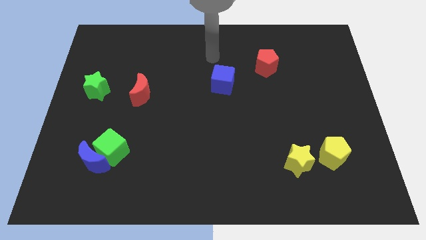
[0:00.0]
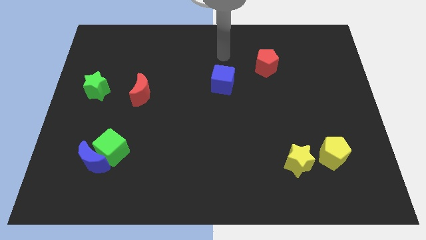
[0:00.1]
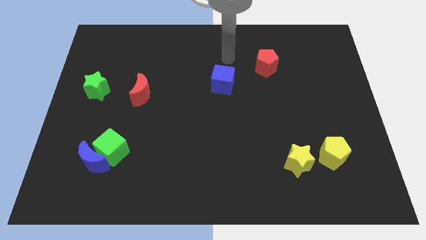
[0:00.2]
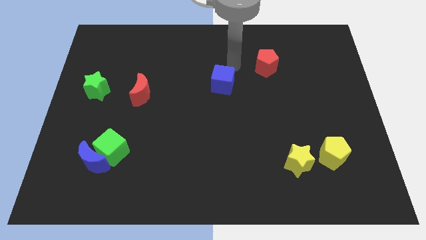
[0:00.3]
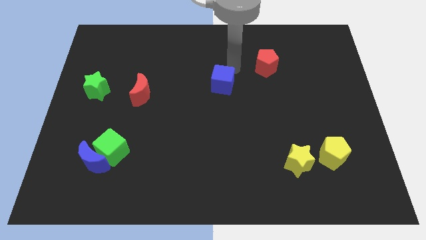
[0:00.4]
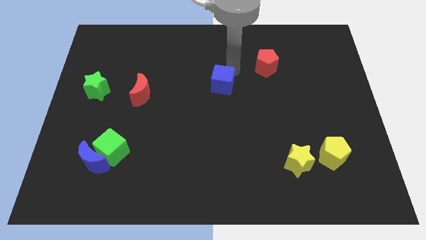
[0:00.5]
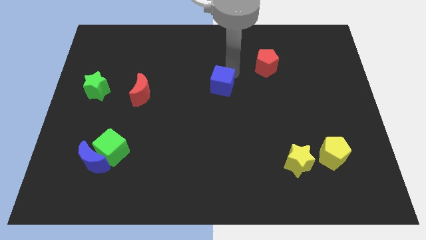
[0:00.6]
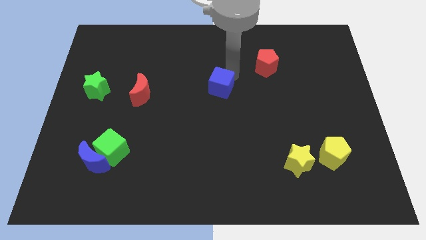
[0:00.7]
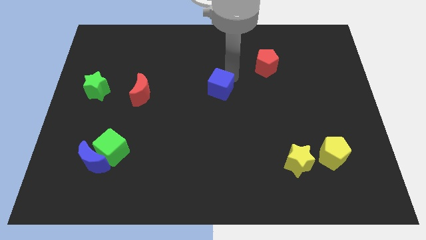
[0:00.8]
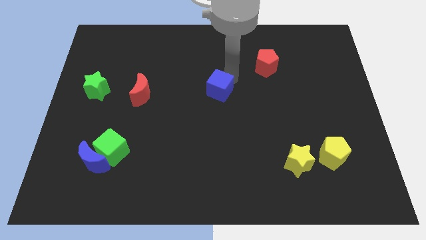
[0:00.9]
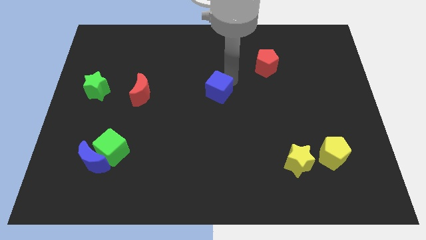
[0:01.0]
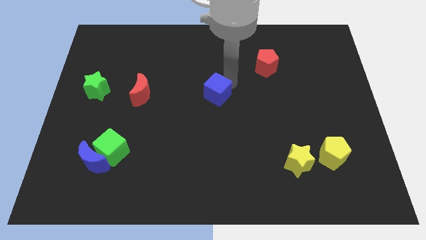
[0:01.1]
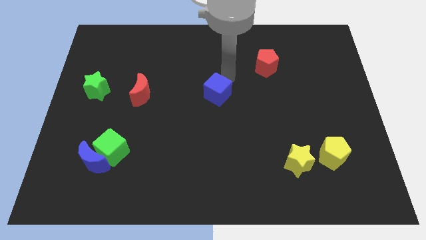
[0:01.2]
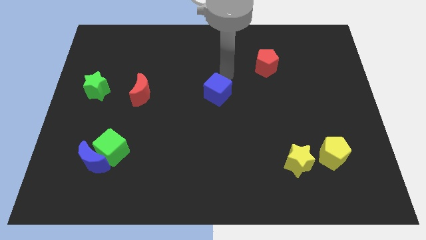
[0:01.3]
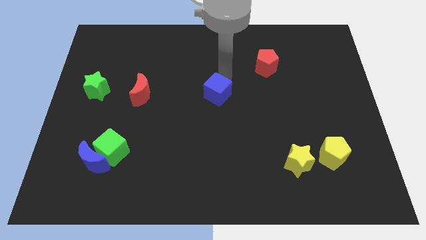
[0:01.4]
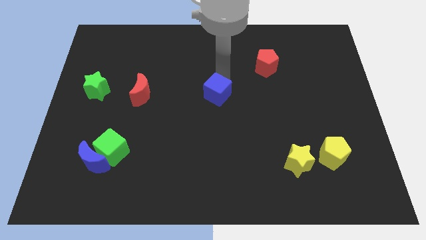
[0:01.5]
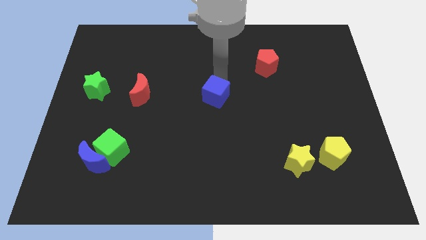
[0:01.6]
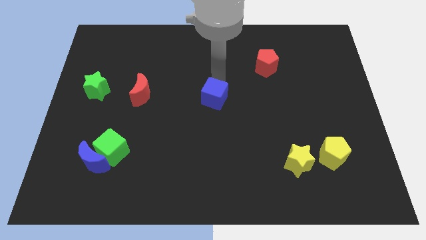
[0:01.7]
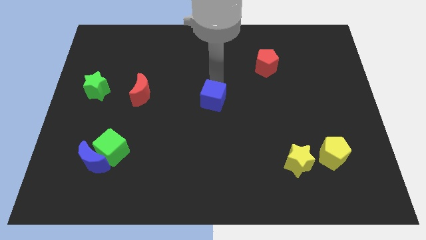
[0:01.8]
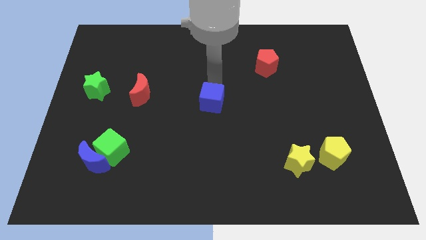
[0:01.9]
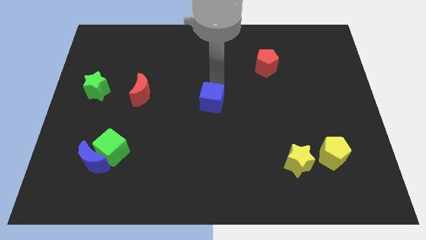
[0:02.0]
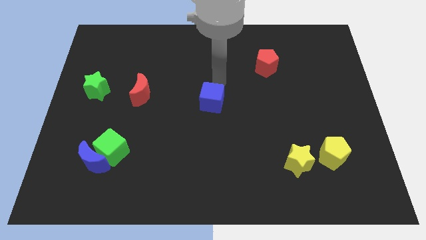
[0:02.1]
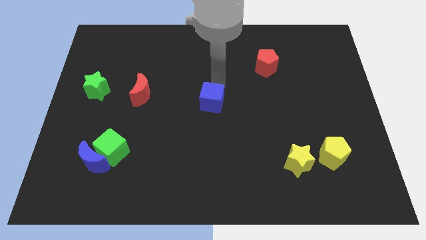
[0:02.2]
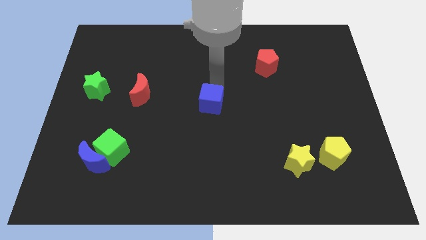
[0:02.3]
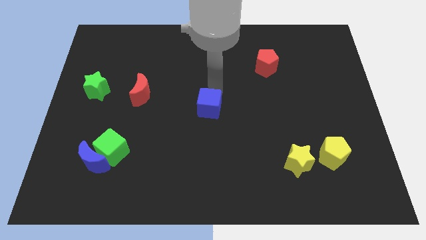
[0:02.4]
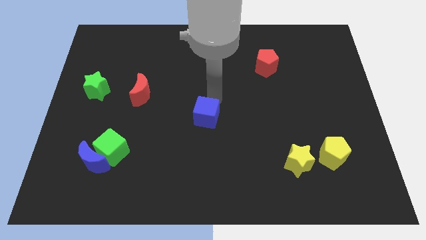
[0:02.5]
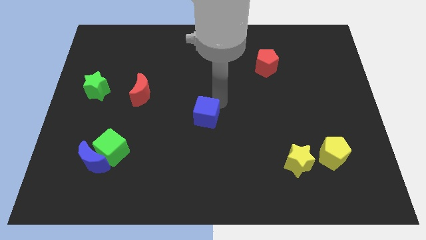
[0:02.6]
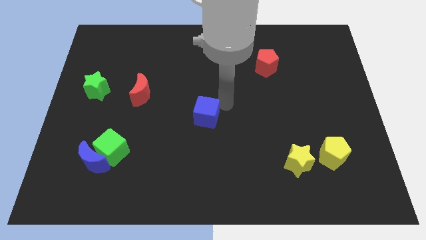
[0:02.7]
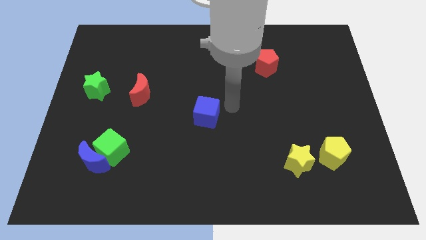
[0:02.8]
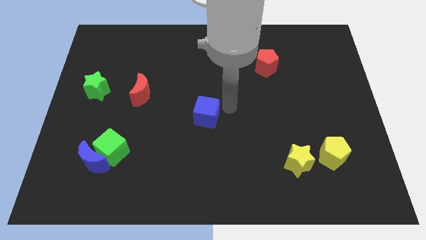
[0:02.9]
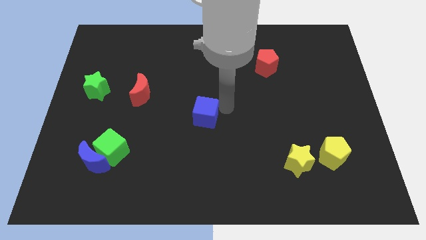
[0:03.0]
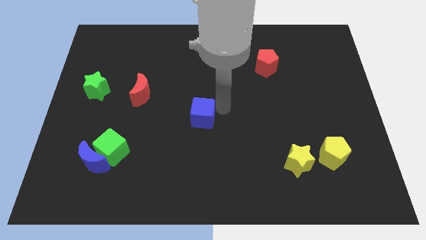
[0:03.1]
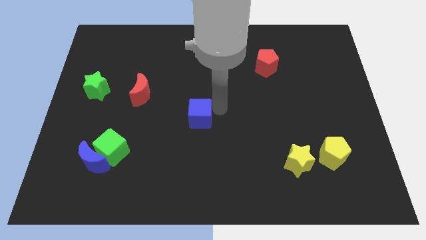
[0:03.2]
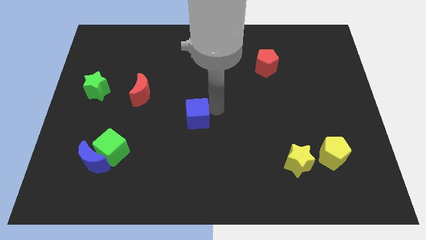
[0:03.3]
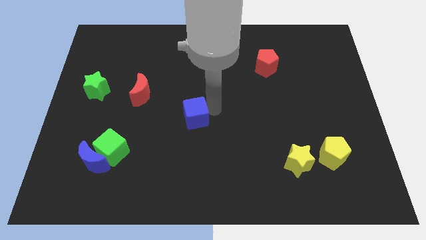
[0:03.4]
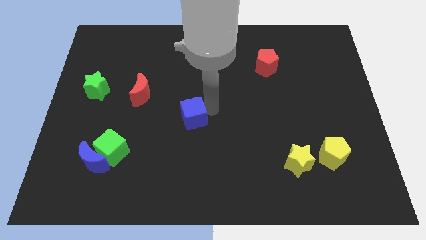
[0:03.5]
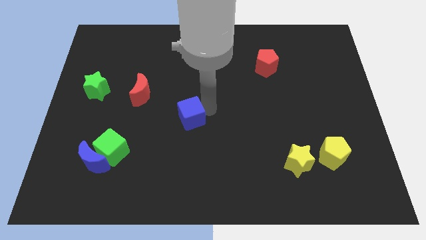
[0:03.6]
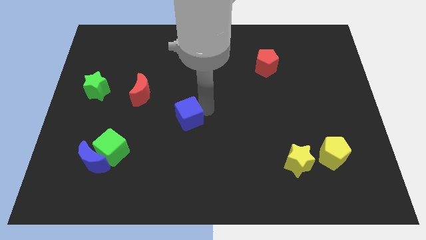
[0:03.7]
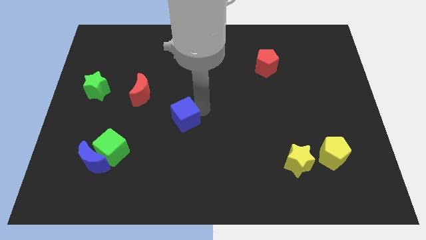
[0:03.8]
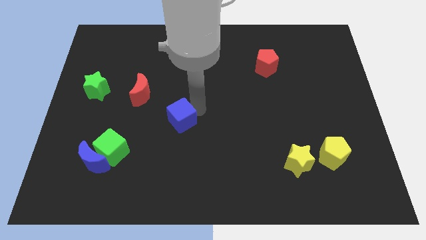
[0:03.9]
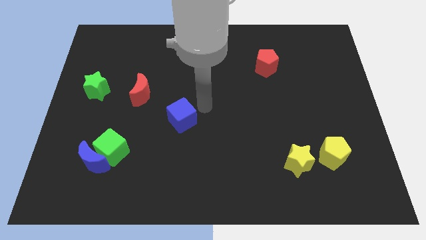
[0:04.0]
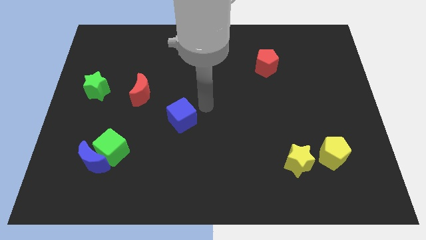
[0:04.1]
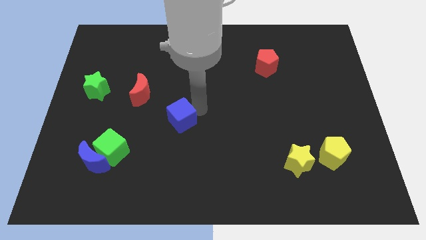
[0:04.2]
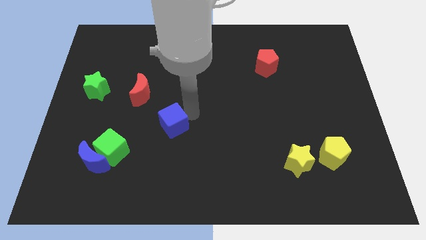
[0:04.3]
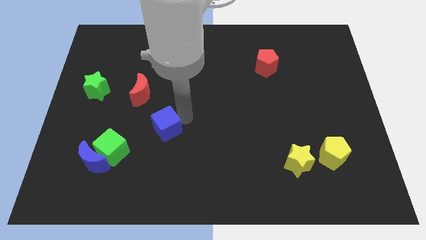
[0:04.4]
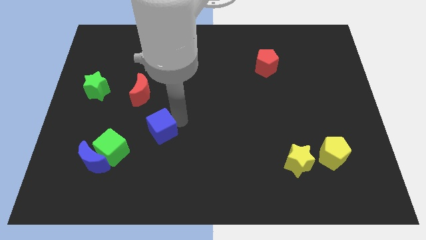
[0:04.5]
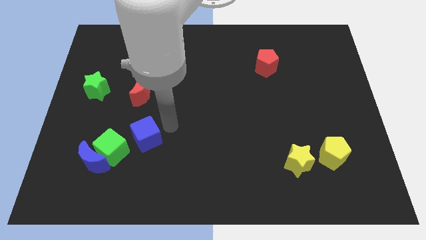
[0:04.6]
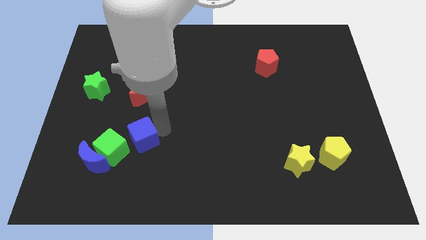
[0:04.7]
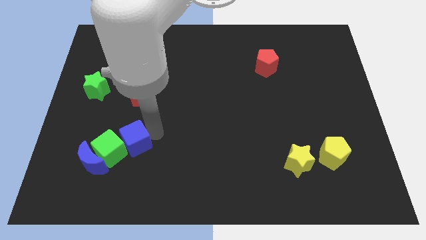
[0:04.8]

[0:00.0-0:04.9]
put the blue cube close to the green cube

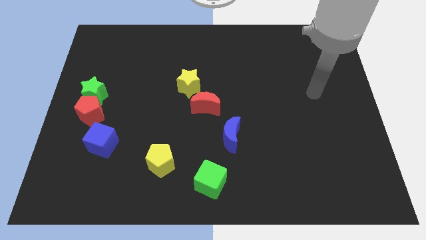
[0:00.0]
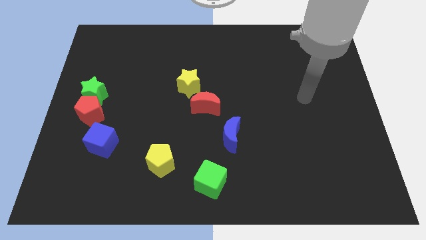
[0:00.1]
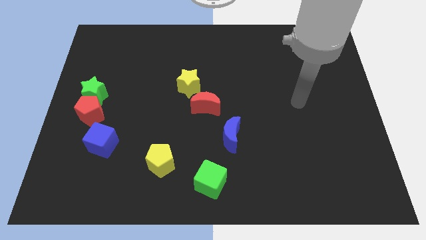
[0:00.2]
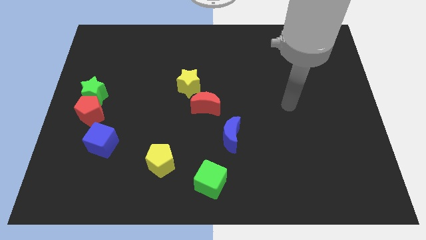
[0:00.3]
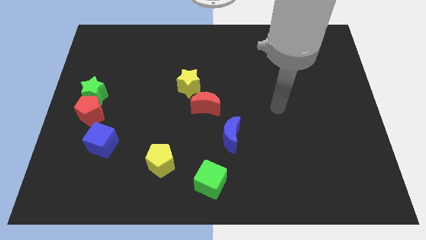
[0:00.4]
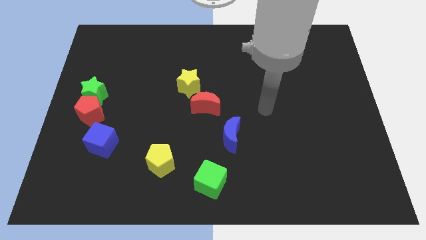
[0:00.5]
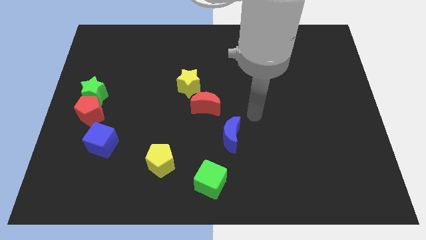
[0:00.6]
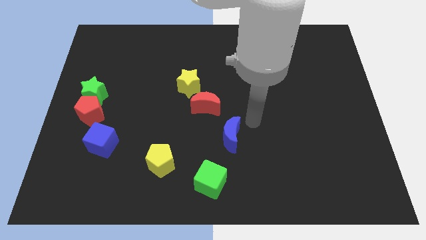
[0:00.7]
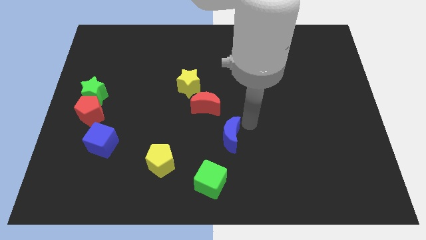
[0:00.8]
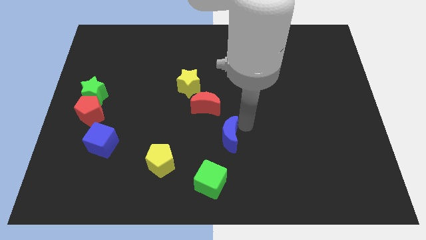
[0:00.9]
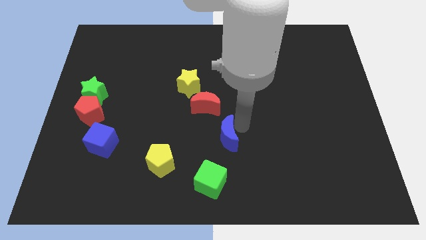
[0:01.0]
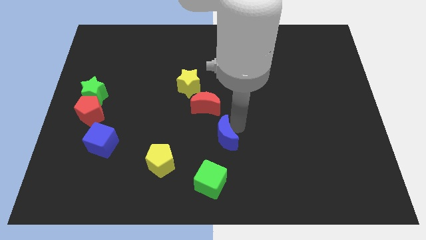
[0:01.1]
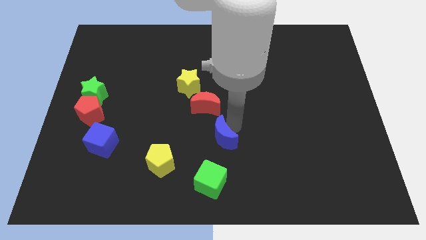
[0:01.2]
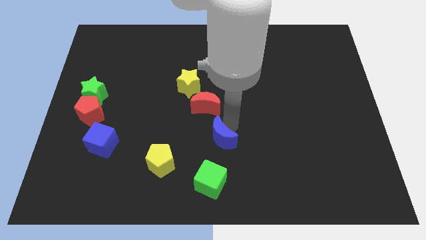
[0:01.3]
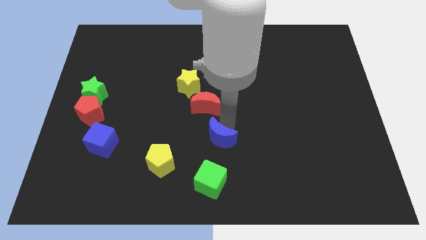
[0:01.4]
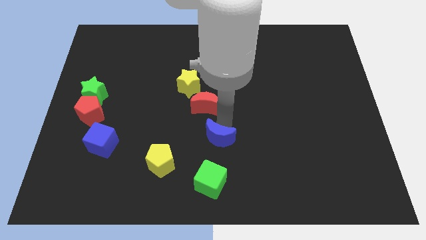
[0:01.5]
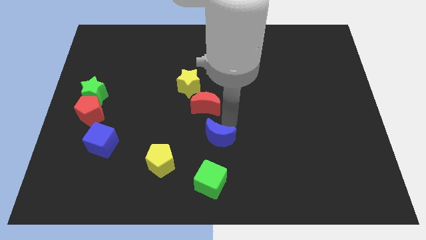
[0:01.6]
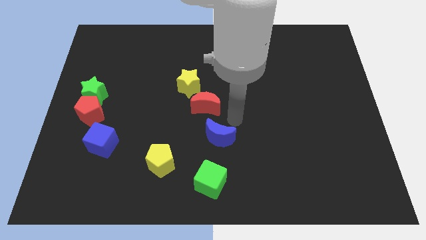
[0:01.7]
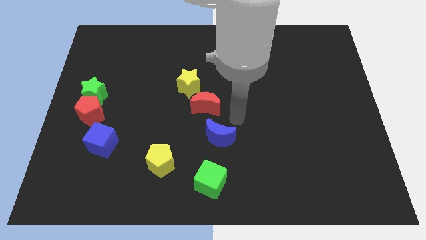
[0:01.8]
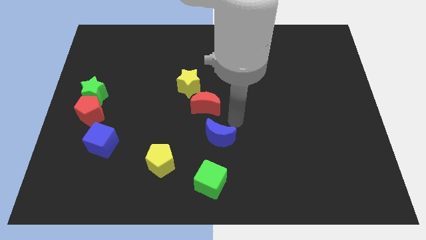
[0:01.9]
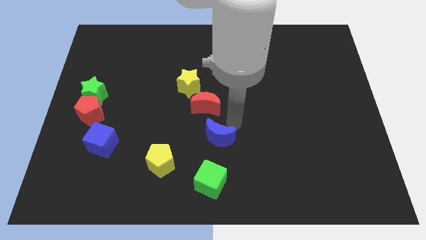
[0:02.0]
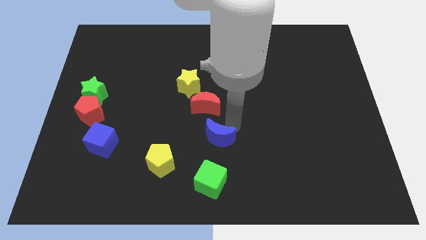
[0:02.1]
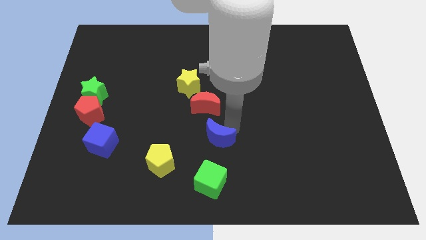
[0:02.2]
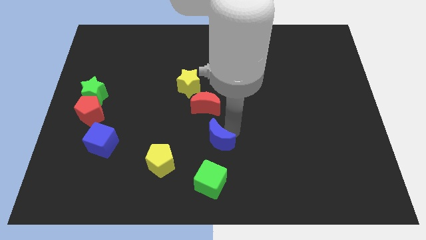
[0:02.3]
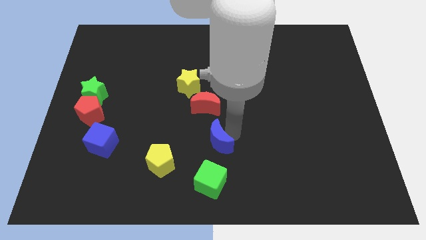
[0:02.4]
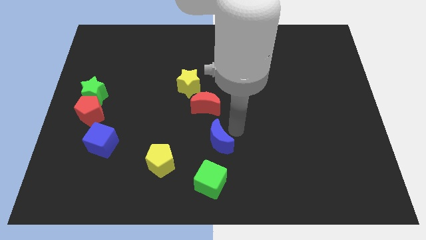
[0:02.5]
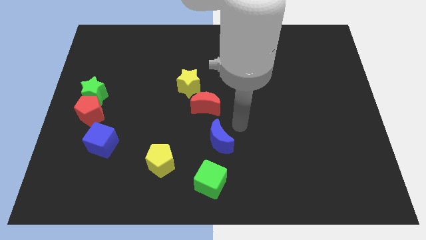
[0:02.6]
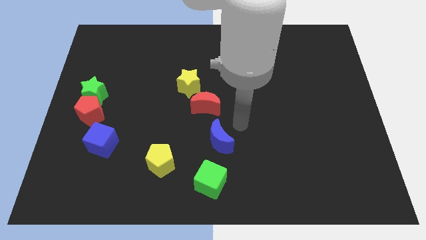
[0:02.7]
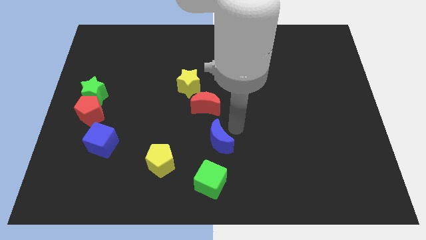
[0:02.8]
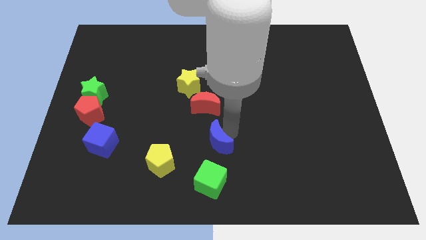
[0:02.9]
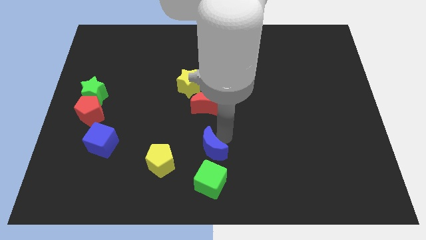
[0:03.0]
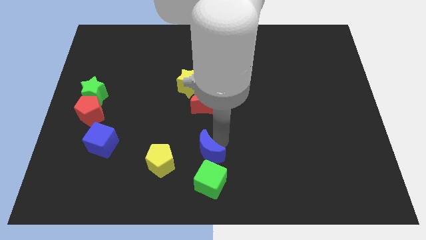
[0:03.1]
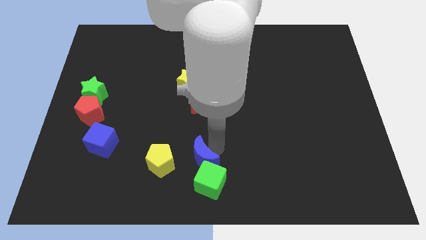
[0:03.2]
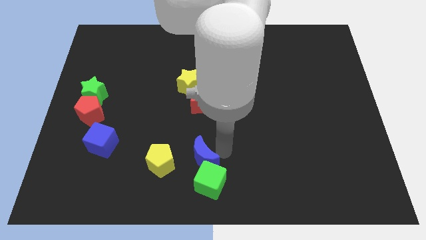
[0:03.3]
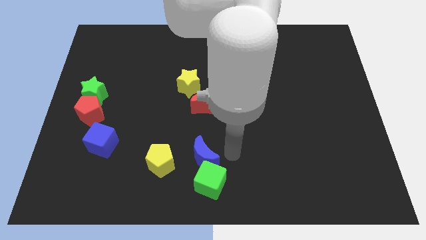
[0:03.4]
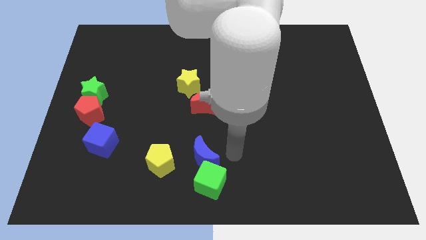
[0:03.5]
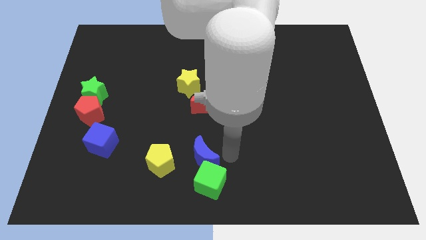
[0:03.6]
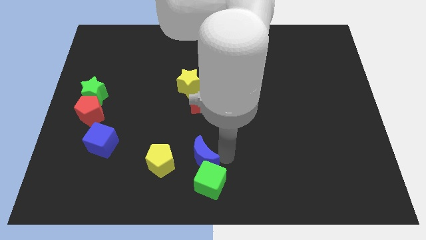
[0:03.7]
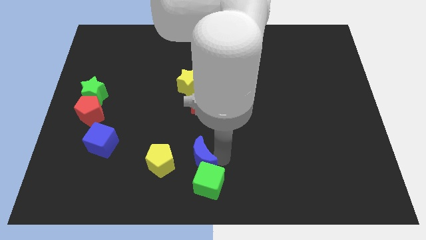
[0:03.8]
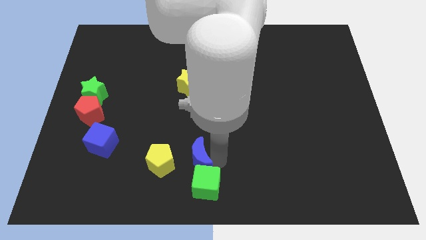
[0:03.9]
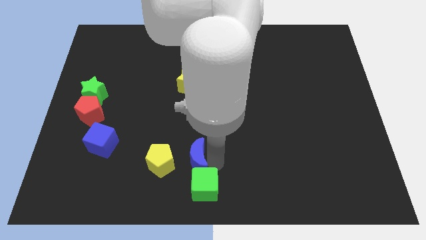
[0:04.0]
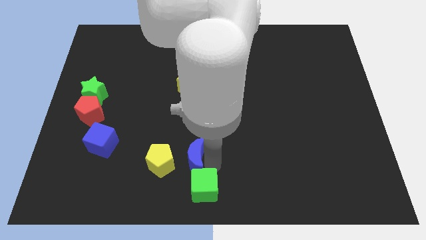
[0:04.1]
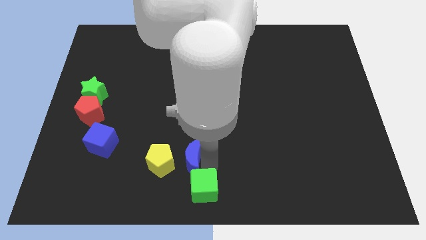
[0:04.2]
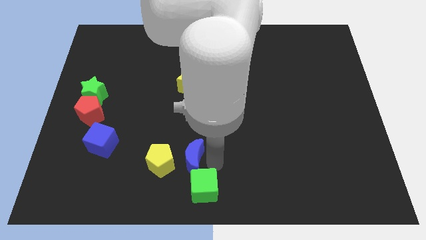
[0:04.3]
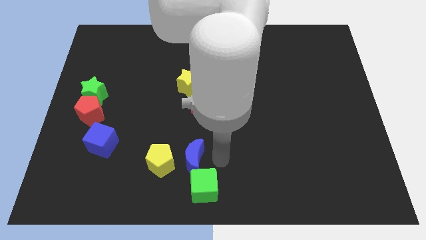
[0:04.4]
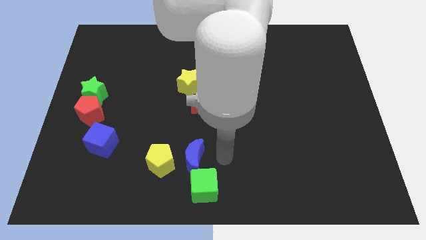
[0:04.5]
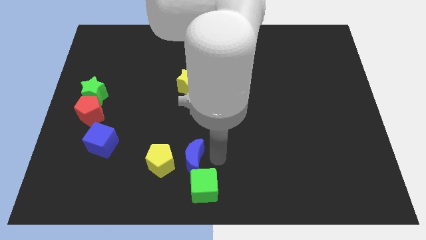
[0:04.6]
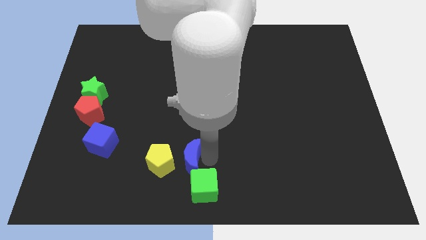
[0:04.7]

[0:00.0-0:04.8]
put the blue moon towards the yellow pentagon
